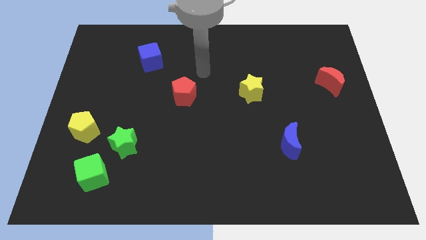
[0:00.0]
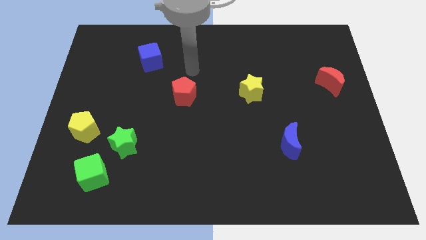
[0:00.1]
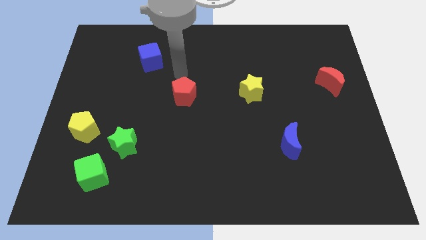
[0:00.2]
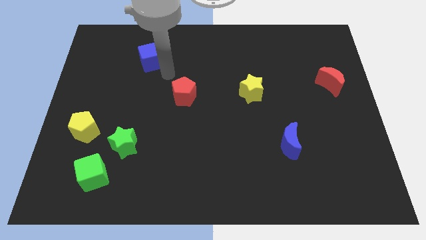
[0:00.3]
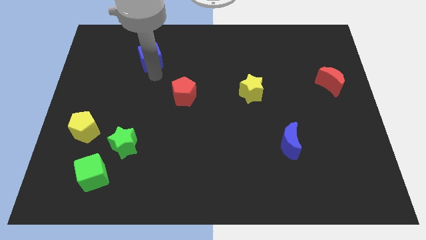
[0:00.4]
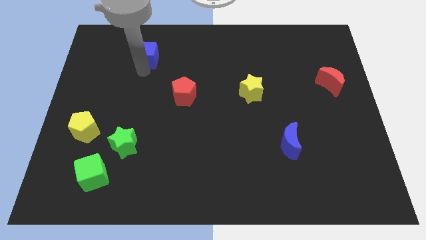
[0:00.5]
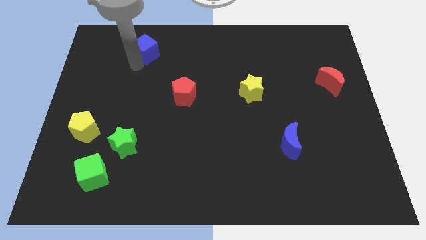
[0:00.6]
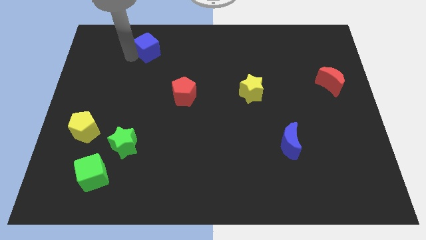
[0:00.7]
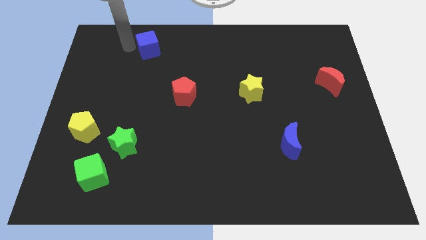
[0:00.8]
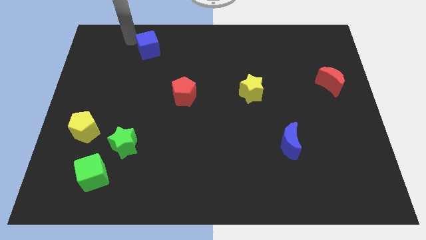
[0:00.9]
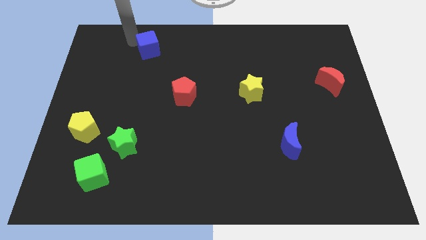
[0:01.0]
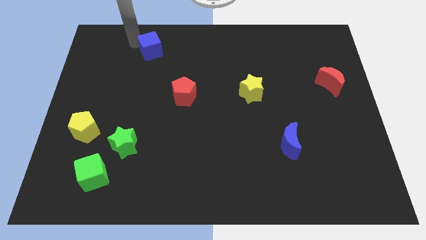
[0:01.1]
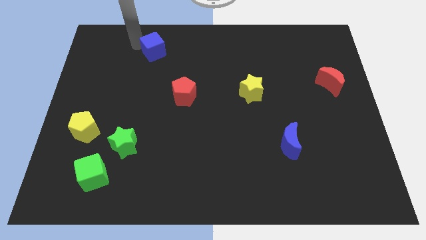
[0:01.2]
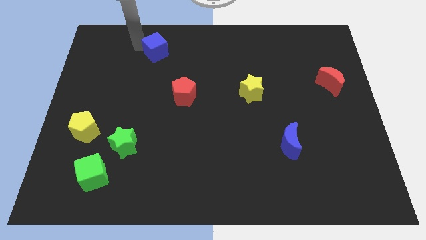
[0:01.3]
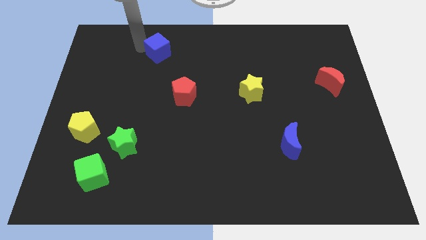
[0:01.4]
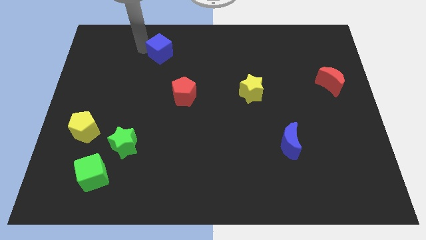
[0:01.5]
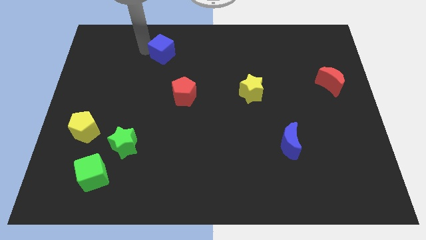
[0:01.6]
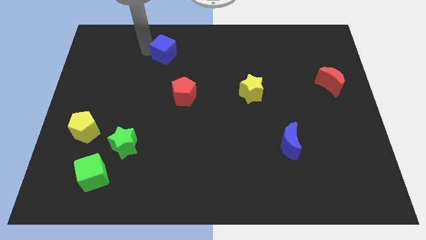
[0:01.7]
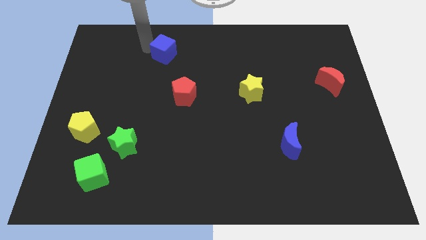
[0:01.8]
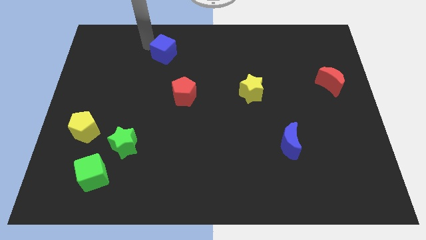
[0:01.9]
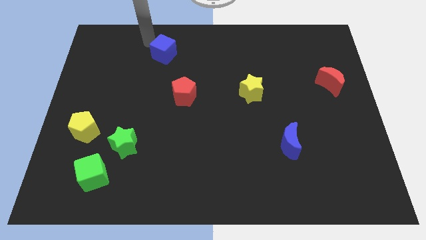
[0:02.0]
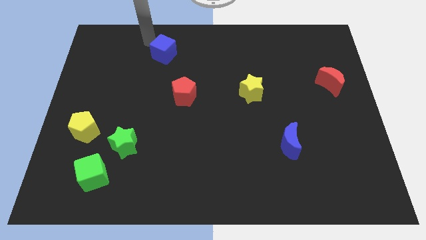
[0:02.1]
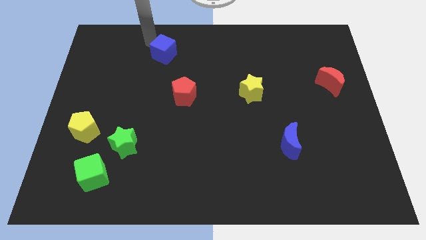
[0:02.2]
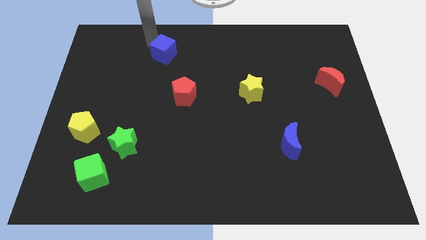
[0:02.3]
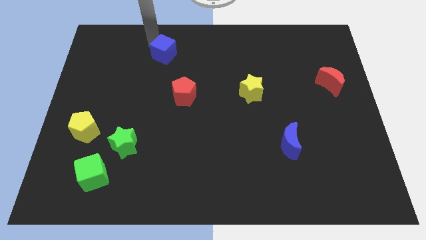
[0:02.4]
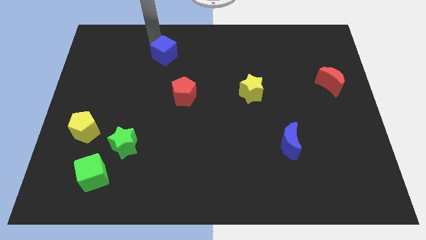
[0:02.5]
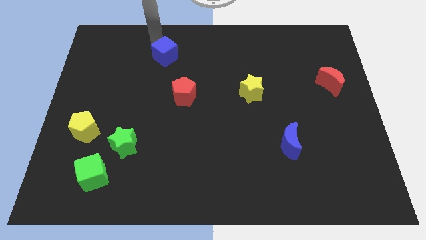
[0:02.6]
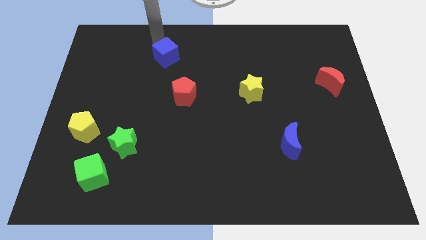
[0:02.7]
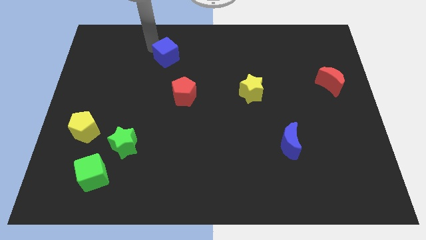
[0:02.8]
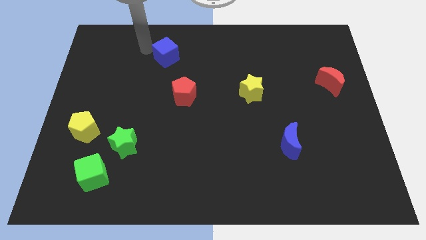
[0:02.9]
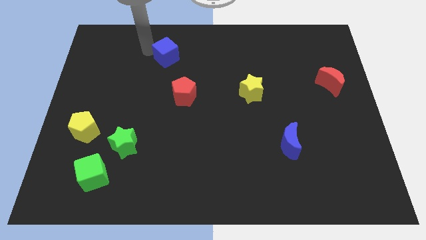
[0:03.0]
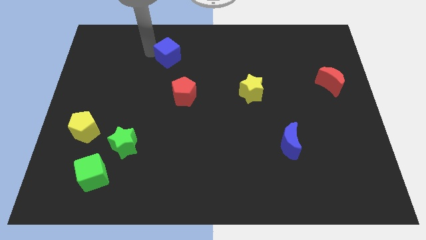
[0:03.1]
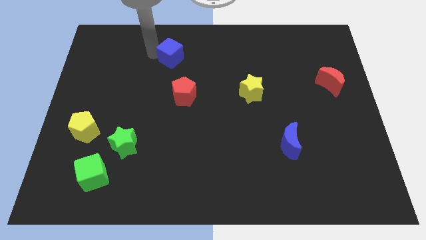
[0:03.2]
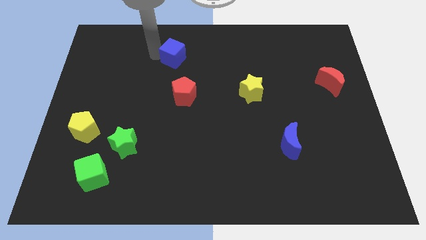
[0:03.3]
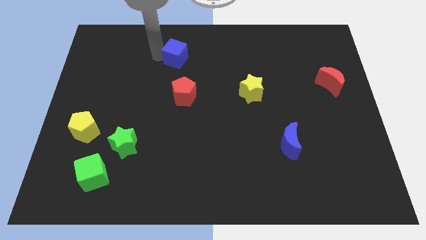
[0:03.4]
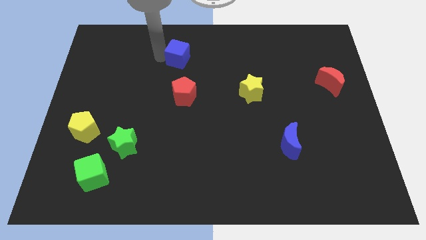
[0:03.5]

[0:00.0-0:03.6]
slightly slide the blue cube right

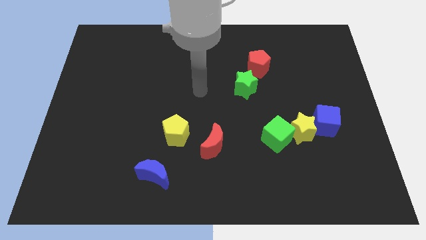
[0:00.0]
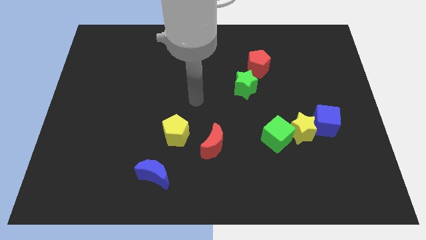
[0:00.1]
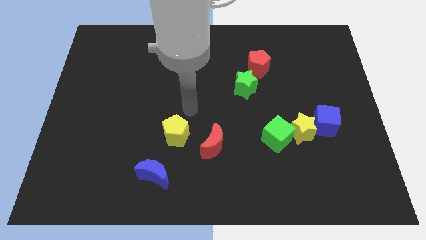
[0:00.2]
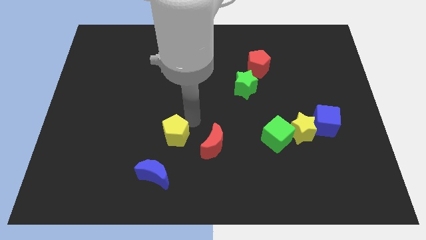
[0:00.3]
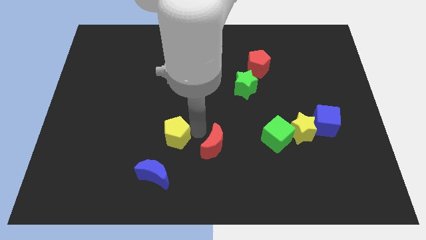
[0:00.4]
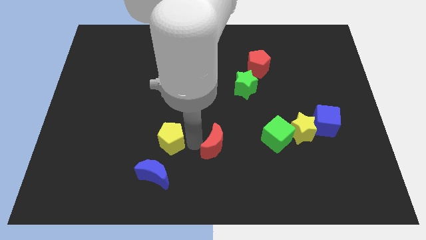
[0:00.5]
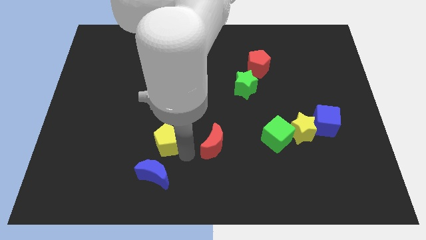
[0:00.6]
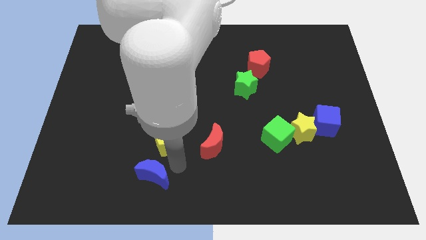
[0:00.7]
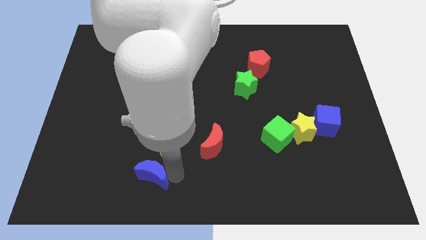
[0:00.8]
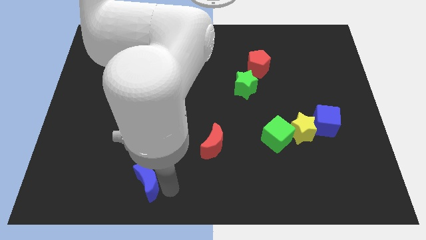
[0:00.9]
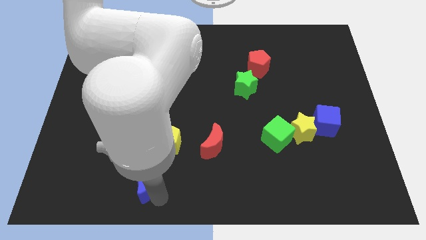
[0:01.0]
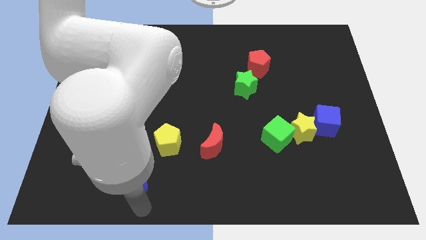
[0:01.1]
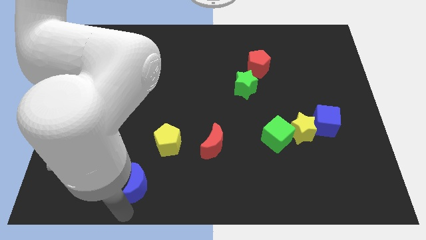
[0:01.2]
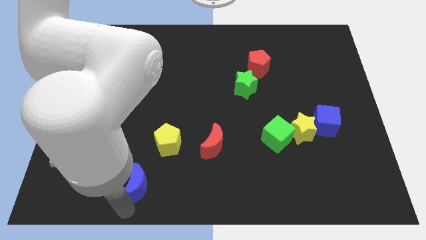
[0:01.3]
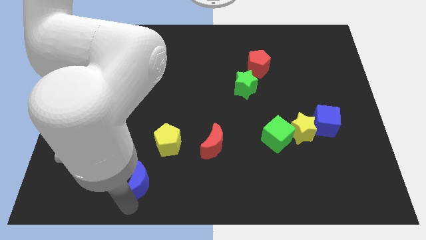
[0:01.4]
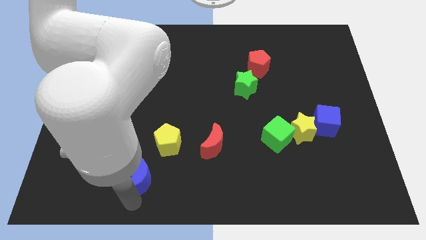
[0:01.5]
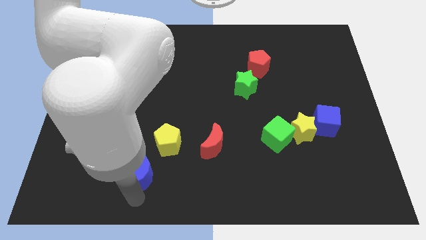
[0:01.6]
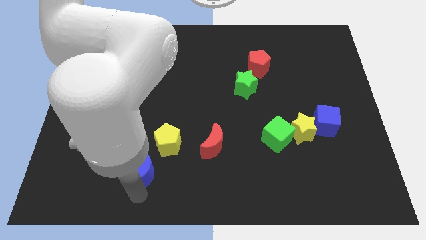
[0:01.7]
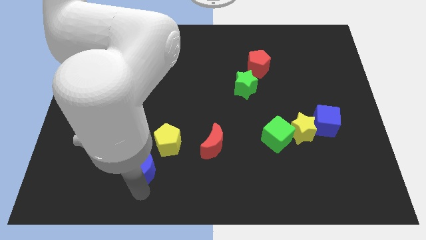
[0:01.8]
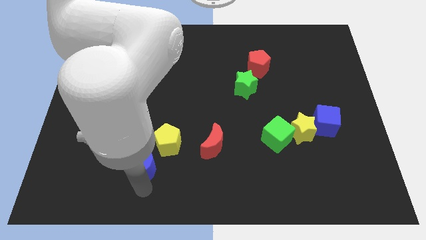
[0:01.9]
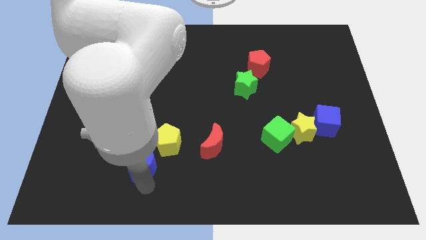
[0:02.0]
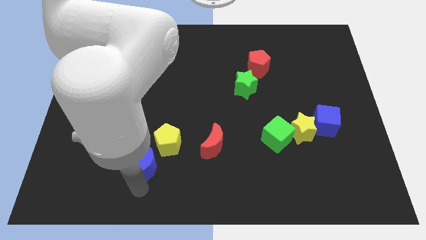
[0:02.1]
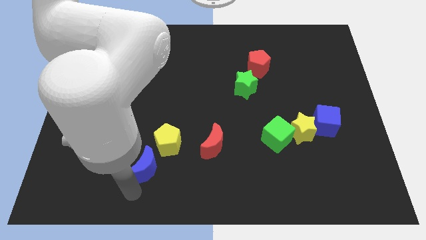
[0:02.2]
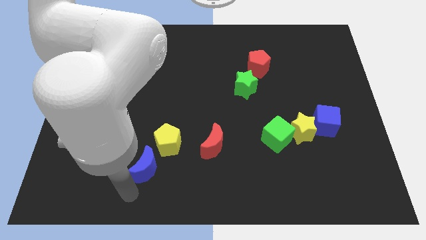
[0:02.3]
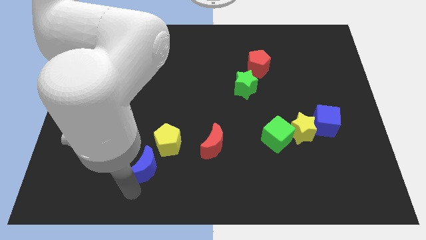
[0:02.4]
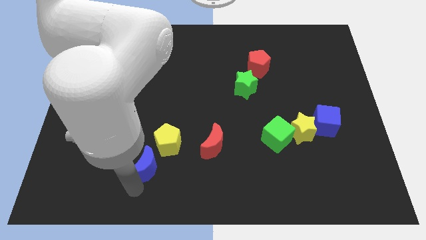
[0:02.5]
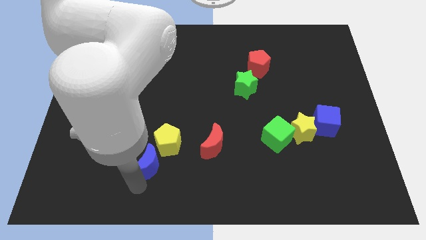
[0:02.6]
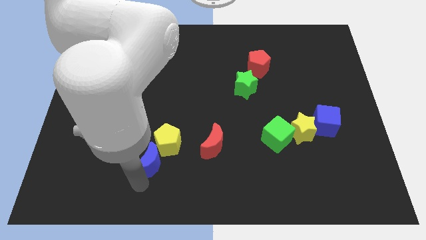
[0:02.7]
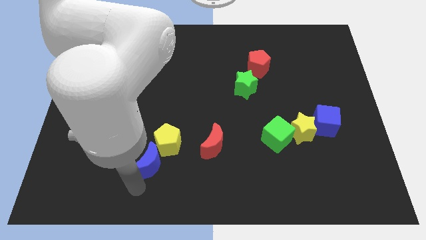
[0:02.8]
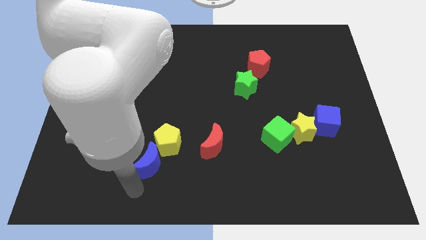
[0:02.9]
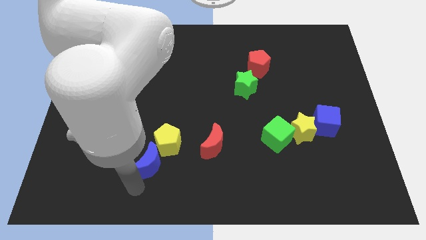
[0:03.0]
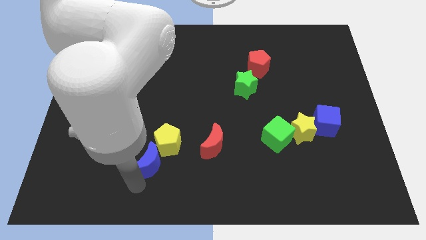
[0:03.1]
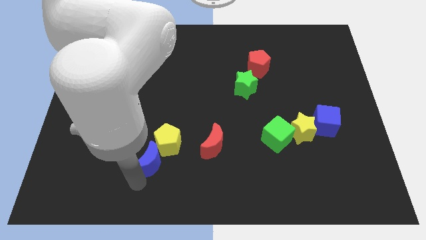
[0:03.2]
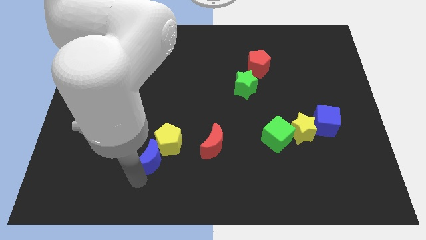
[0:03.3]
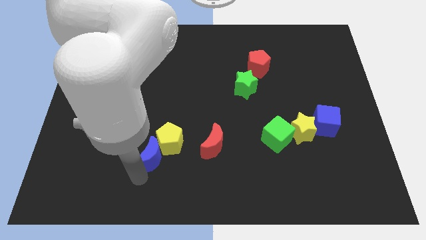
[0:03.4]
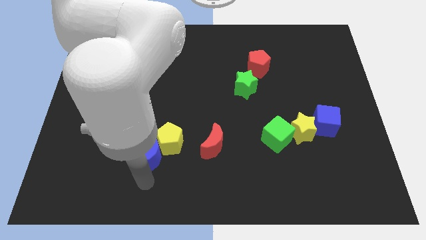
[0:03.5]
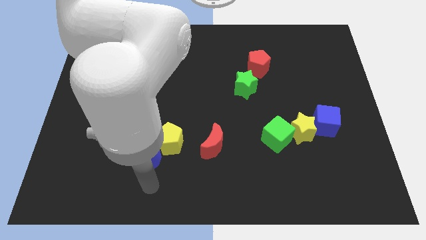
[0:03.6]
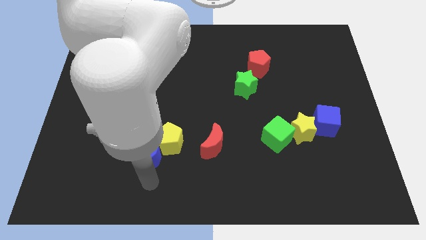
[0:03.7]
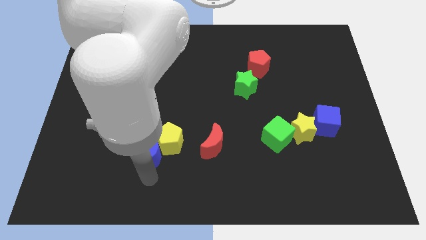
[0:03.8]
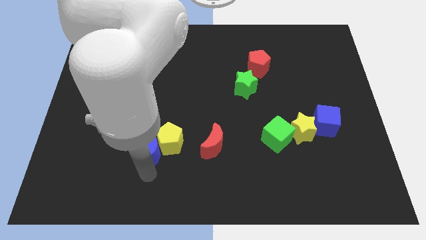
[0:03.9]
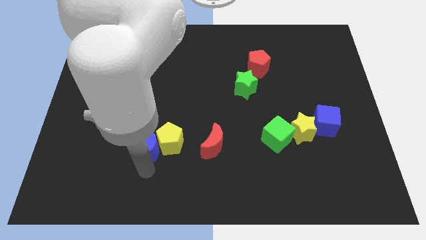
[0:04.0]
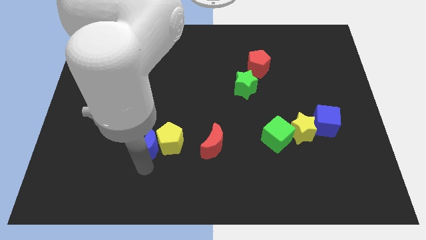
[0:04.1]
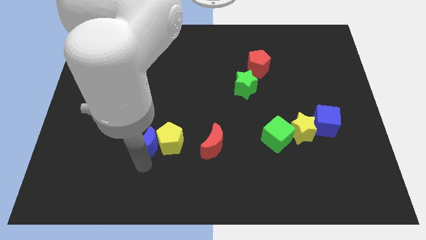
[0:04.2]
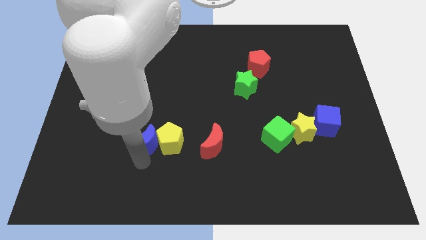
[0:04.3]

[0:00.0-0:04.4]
slightly move the blue moon up

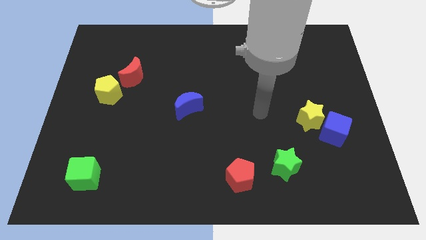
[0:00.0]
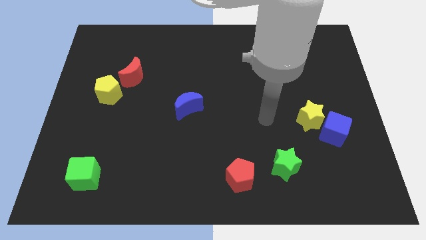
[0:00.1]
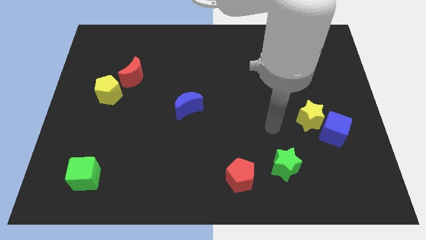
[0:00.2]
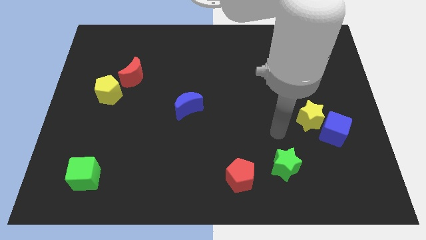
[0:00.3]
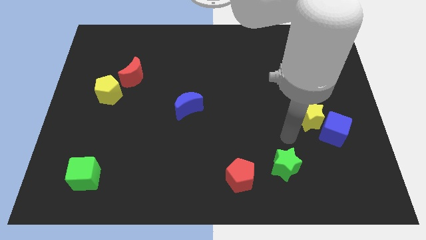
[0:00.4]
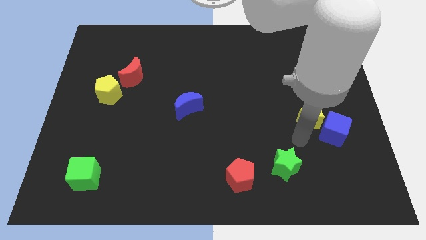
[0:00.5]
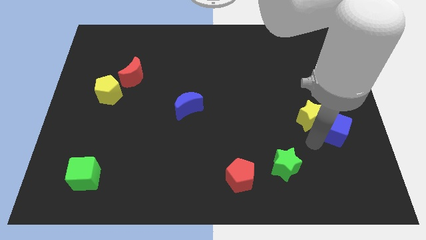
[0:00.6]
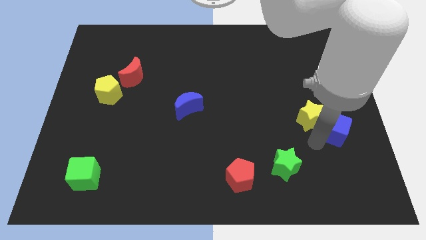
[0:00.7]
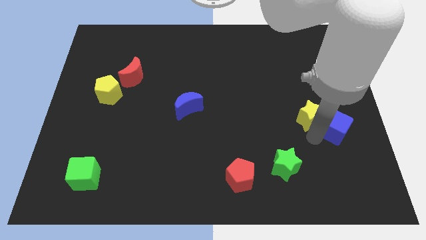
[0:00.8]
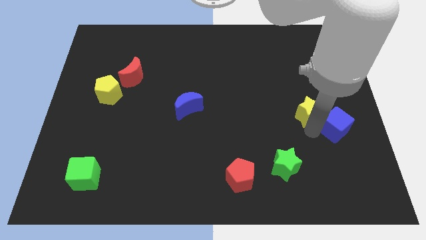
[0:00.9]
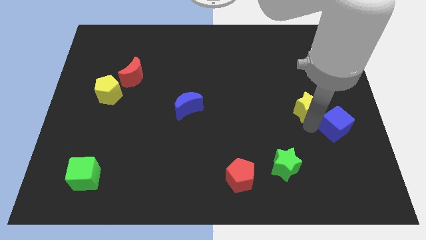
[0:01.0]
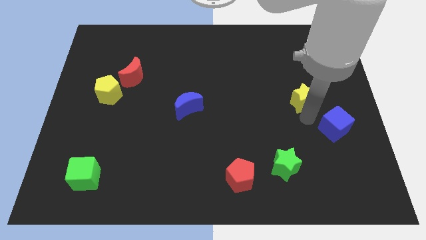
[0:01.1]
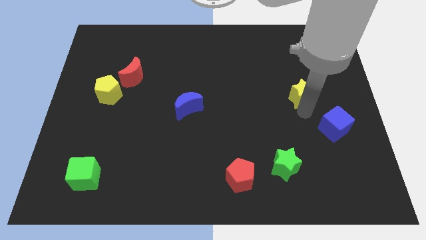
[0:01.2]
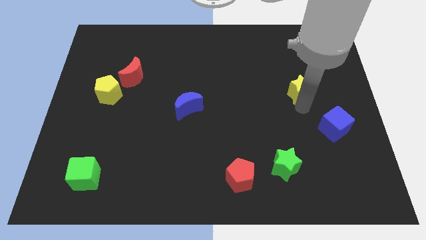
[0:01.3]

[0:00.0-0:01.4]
slide the yellow star a bit upwards
